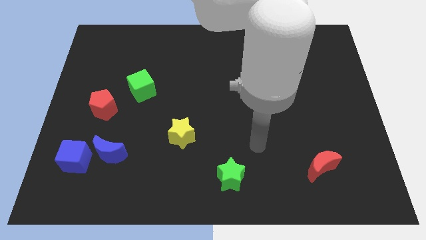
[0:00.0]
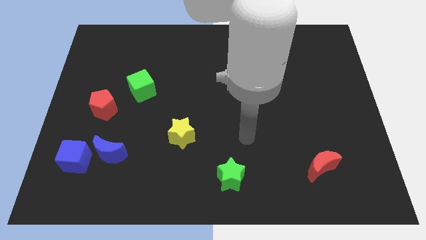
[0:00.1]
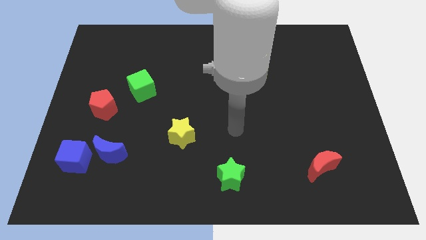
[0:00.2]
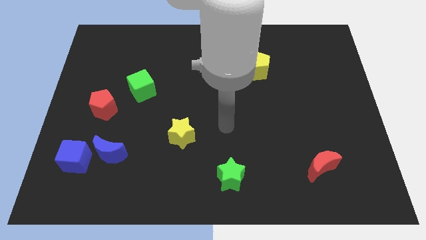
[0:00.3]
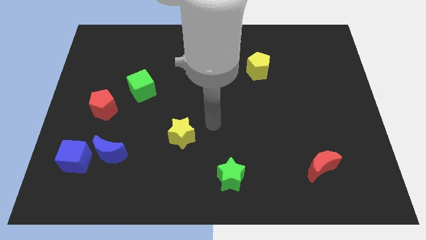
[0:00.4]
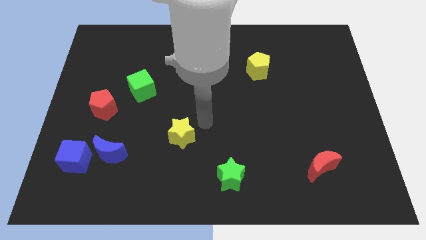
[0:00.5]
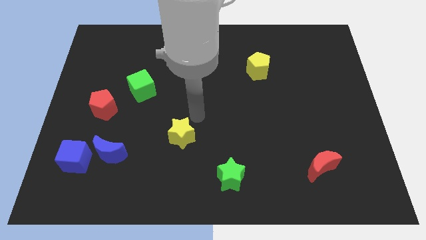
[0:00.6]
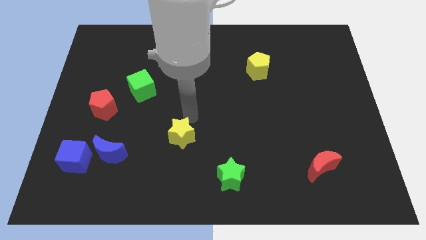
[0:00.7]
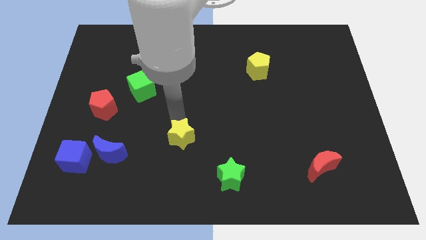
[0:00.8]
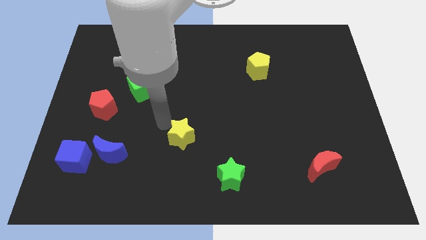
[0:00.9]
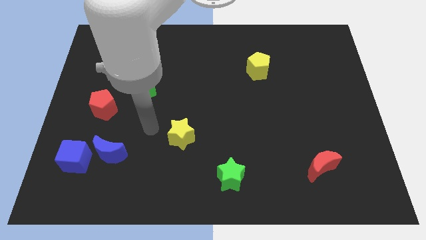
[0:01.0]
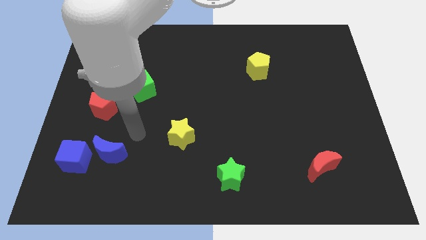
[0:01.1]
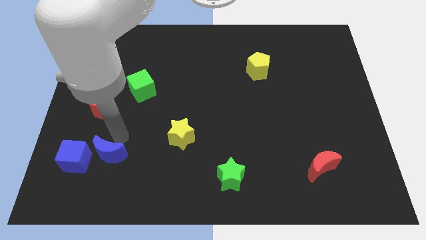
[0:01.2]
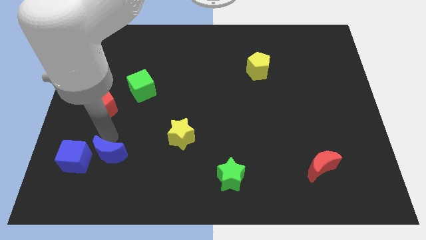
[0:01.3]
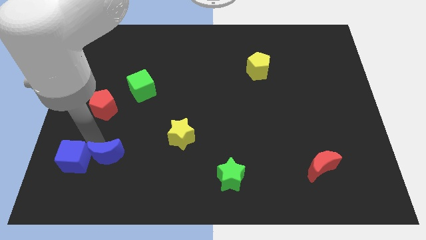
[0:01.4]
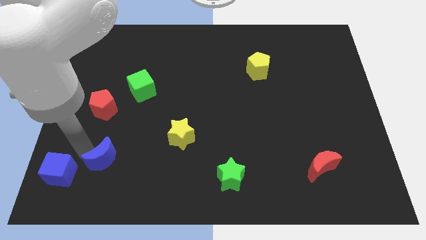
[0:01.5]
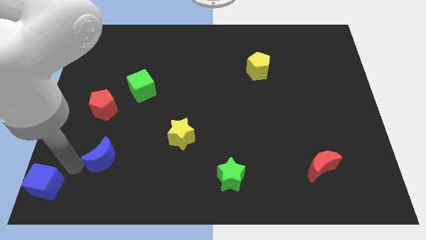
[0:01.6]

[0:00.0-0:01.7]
pull the blue moon apart from the blue cube

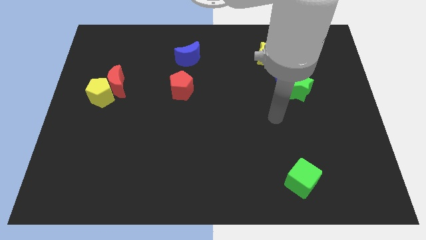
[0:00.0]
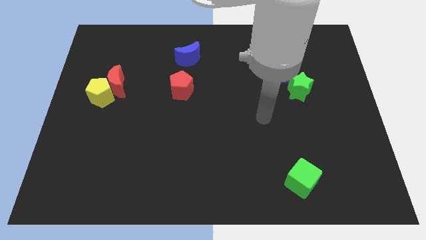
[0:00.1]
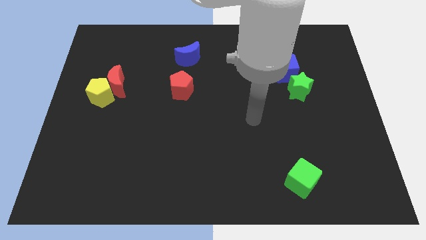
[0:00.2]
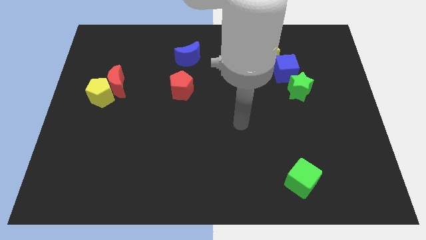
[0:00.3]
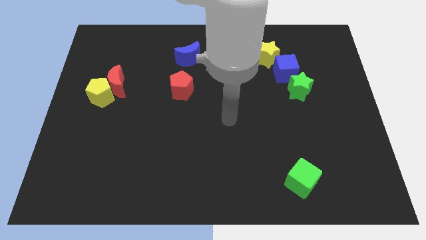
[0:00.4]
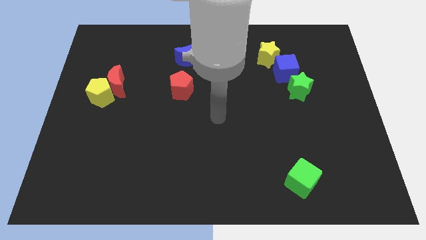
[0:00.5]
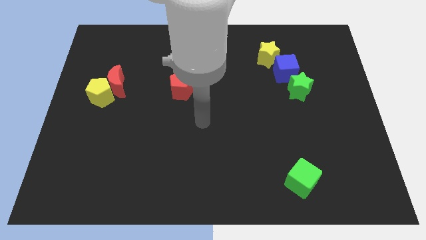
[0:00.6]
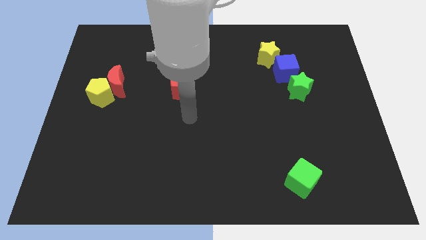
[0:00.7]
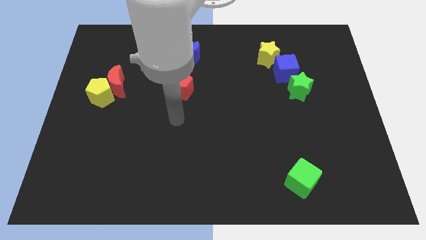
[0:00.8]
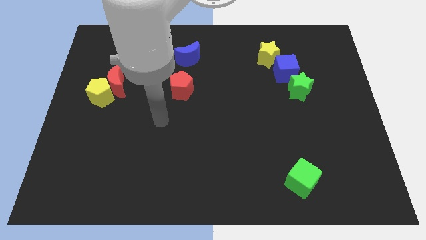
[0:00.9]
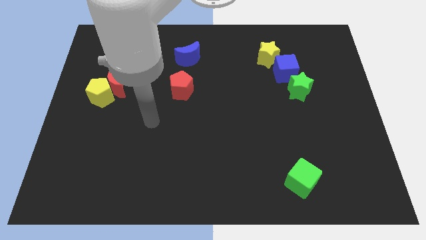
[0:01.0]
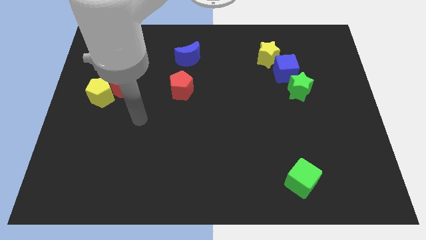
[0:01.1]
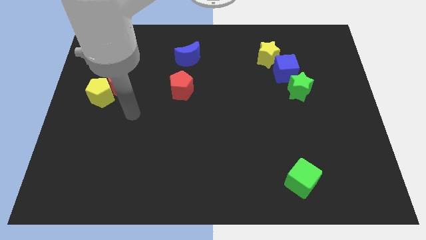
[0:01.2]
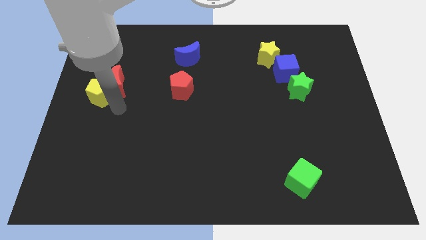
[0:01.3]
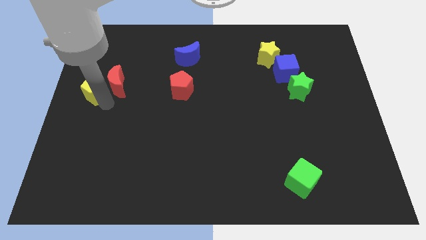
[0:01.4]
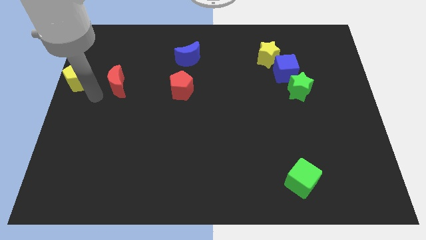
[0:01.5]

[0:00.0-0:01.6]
move the red moon away from the yellow pentagon

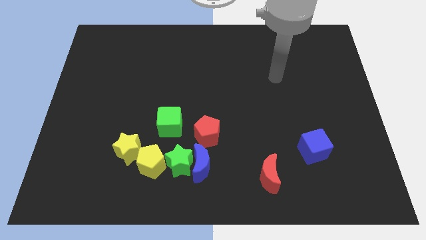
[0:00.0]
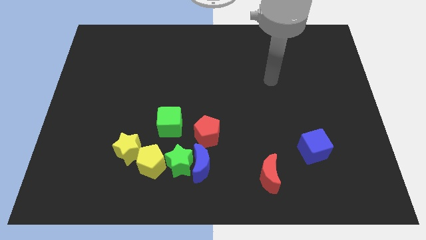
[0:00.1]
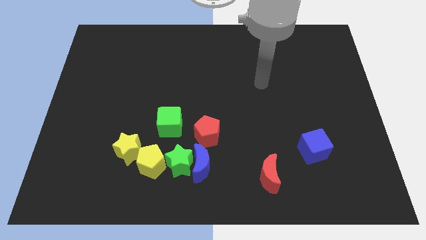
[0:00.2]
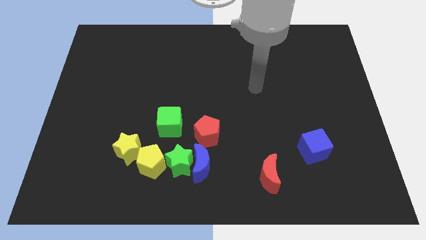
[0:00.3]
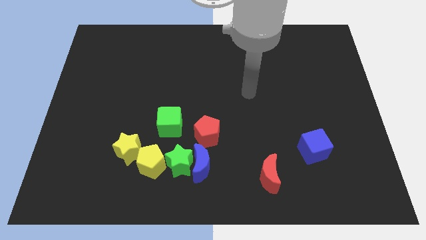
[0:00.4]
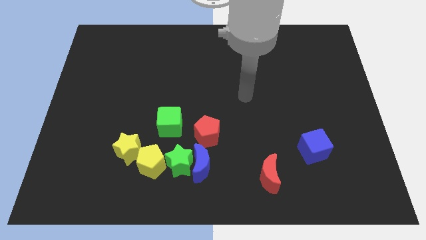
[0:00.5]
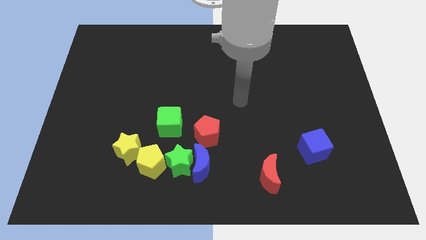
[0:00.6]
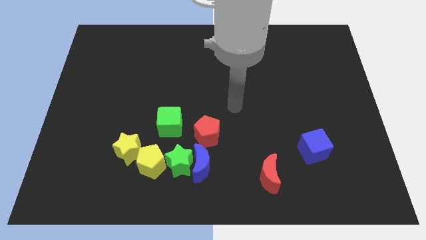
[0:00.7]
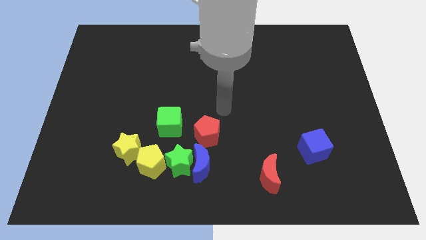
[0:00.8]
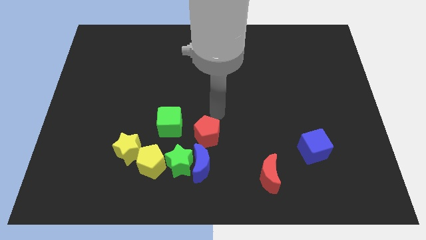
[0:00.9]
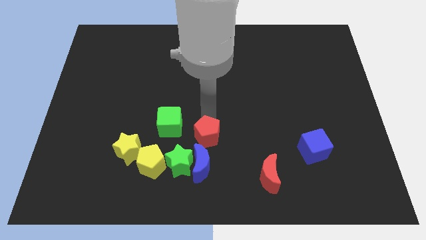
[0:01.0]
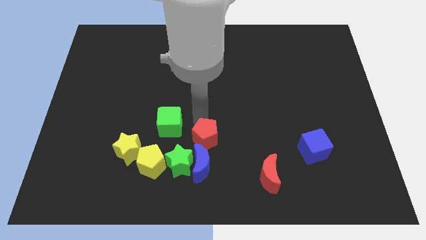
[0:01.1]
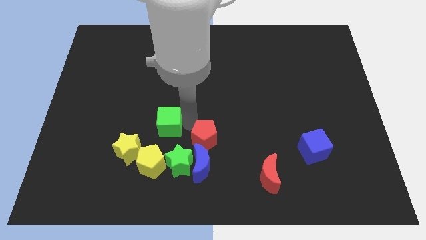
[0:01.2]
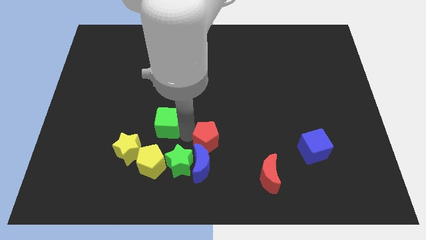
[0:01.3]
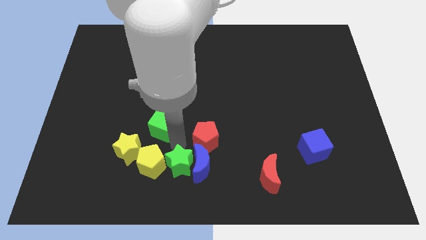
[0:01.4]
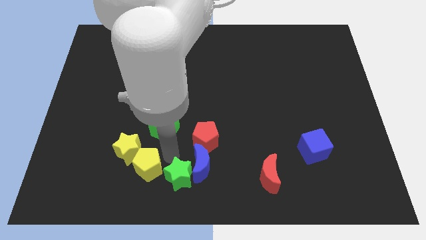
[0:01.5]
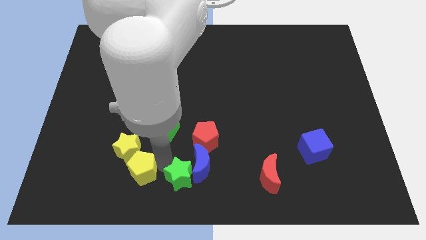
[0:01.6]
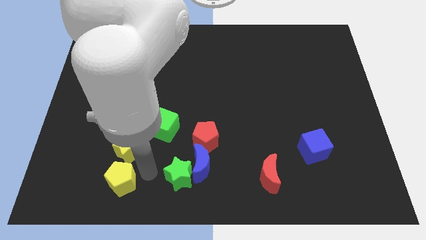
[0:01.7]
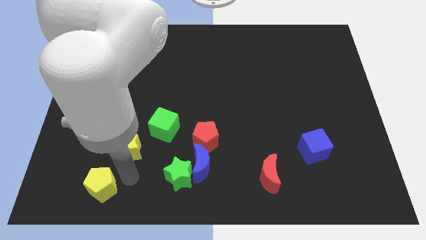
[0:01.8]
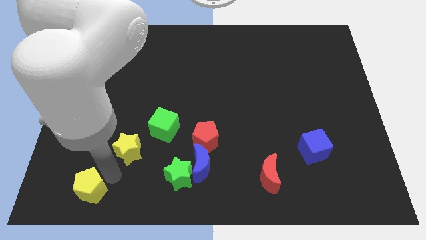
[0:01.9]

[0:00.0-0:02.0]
pull the yellow star apart from the yellow pentagon

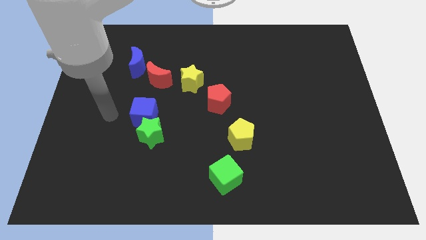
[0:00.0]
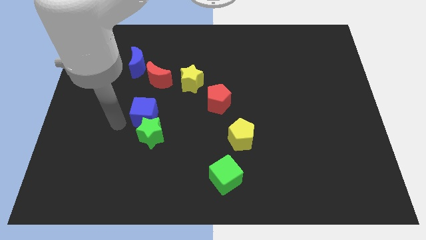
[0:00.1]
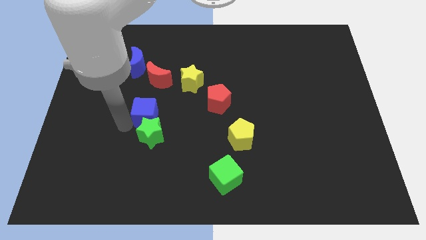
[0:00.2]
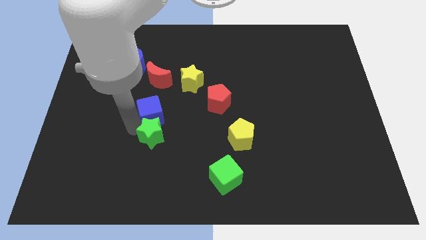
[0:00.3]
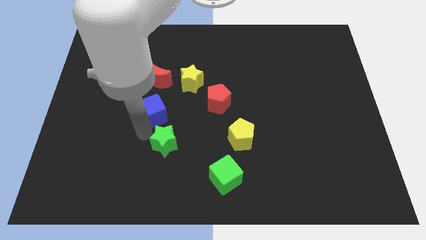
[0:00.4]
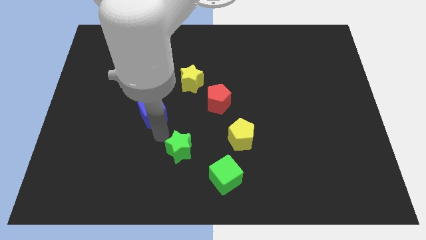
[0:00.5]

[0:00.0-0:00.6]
move the blue cube away from the green star

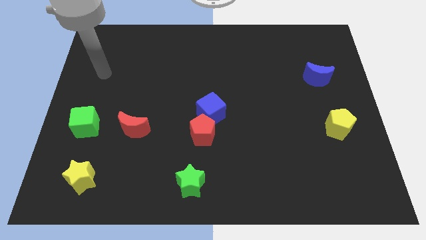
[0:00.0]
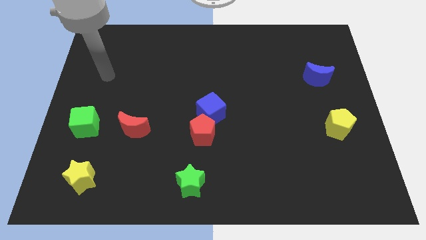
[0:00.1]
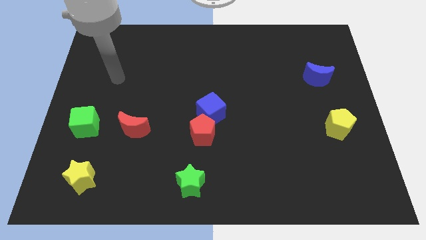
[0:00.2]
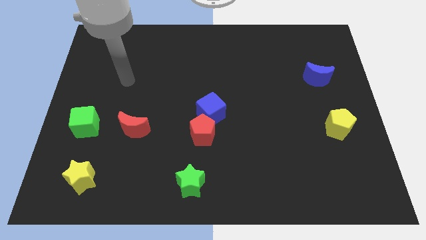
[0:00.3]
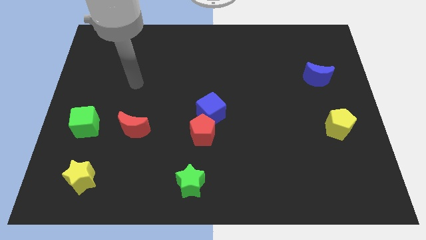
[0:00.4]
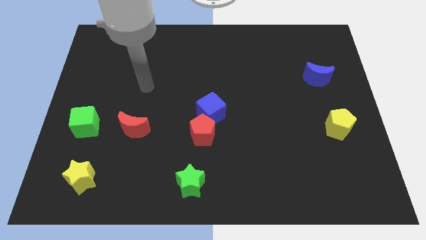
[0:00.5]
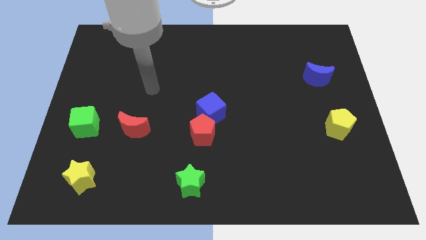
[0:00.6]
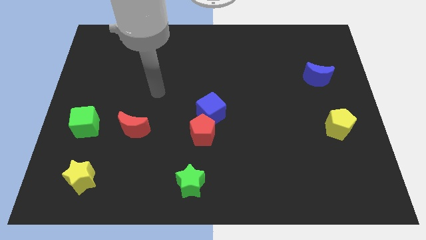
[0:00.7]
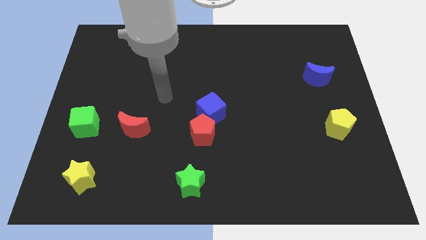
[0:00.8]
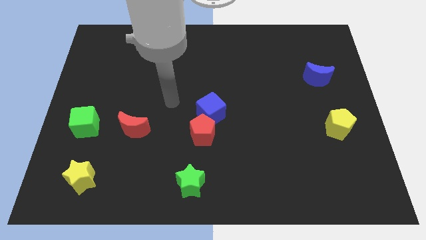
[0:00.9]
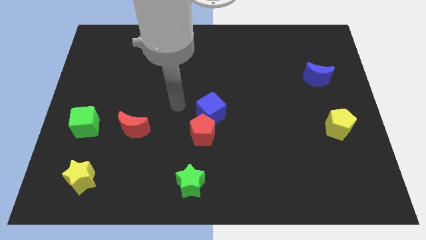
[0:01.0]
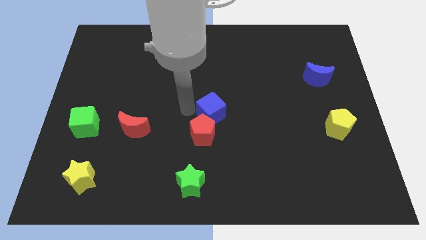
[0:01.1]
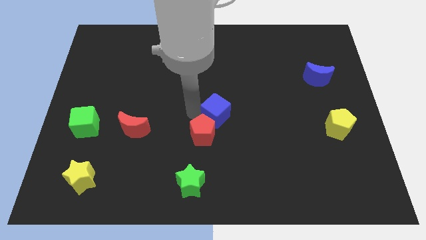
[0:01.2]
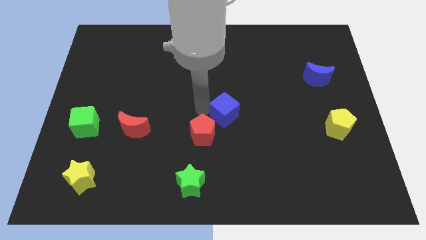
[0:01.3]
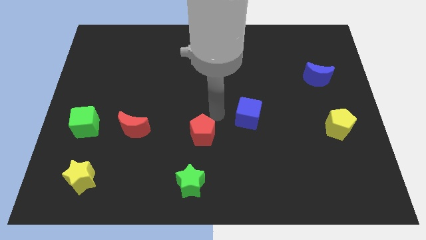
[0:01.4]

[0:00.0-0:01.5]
separate the red pentagon from the blue cube

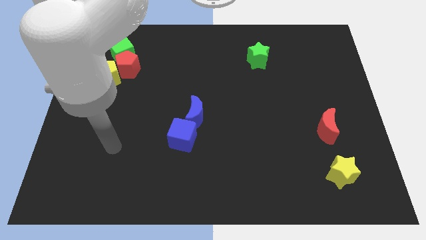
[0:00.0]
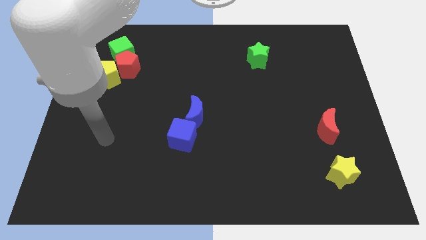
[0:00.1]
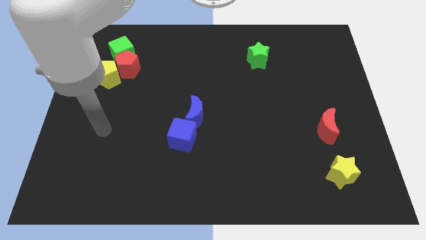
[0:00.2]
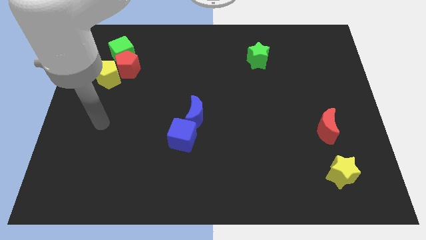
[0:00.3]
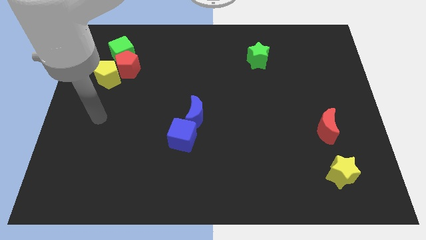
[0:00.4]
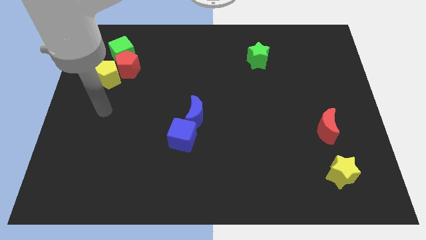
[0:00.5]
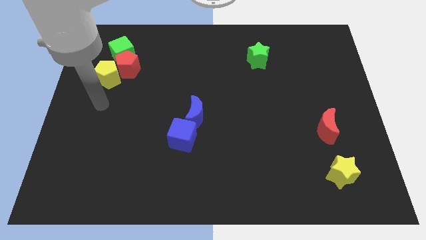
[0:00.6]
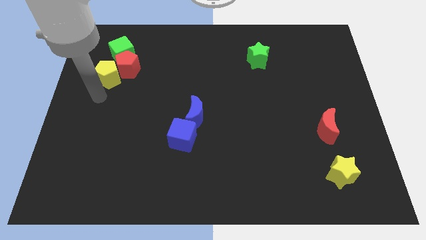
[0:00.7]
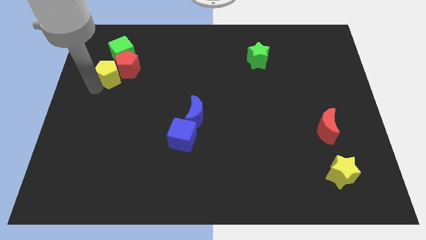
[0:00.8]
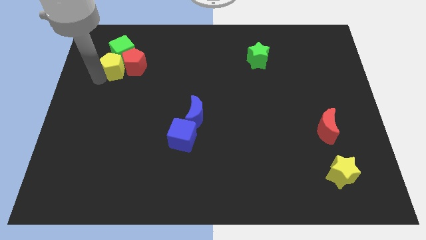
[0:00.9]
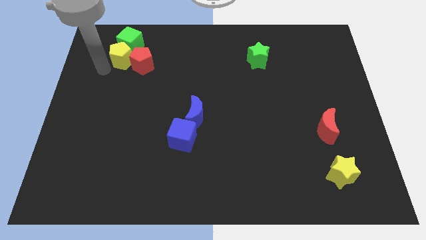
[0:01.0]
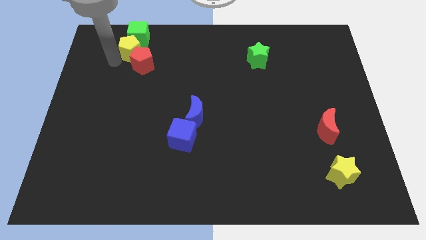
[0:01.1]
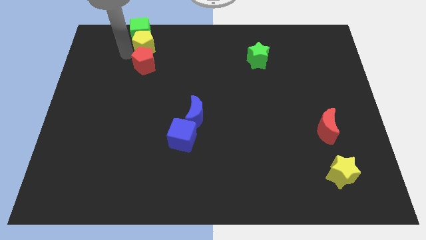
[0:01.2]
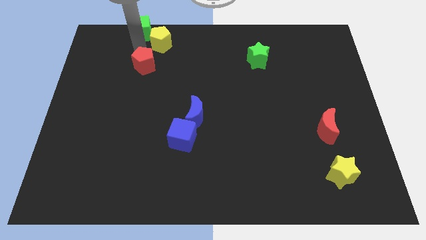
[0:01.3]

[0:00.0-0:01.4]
separate the red pentagon from the yellow pentagon and green cube

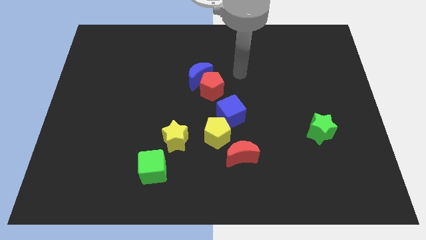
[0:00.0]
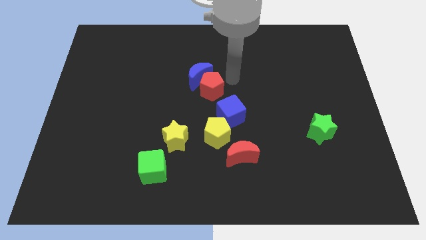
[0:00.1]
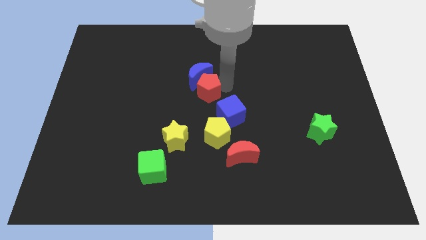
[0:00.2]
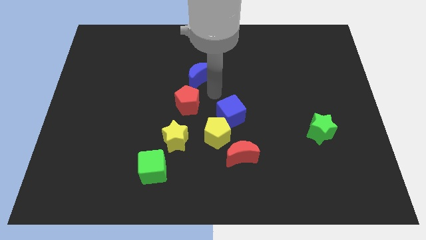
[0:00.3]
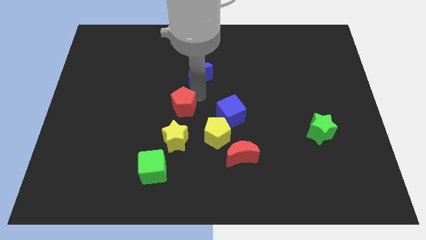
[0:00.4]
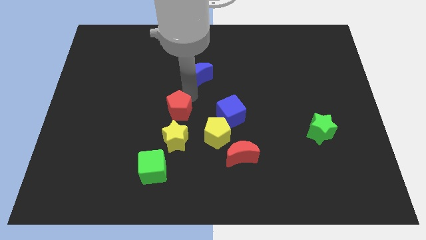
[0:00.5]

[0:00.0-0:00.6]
pull the blue moon apart from the red pentagon
